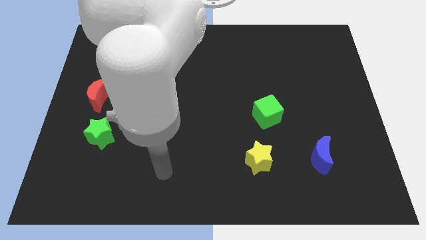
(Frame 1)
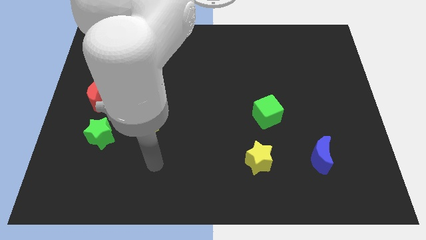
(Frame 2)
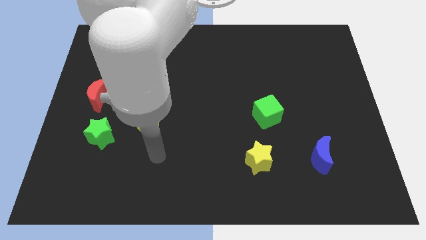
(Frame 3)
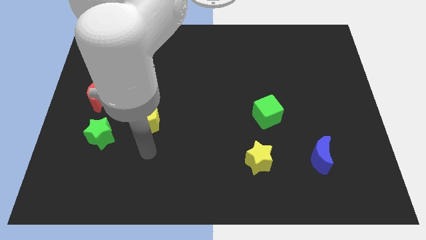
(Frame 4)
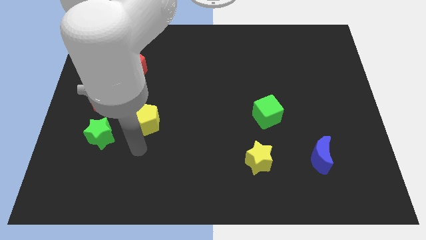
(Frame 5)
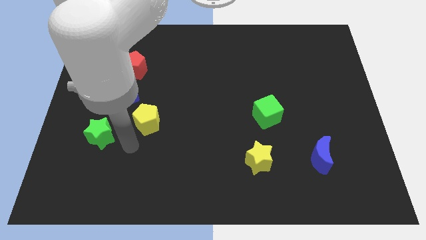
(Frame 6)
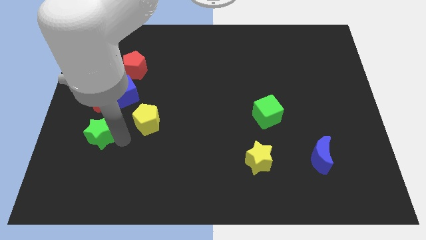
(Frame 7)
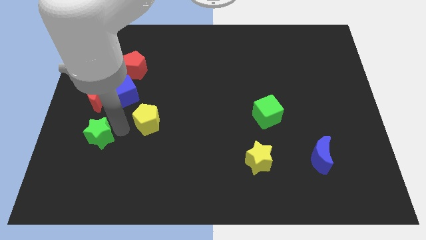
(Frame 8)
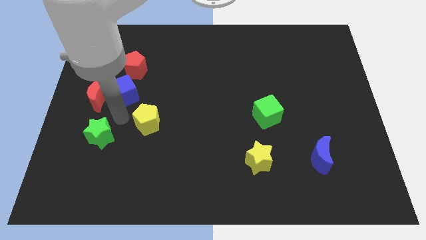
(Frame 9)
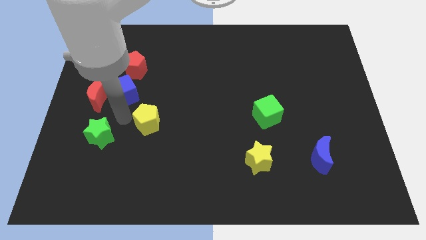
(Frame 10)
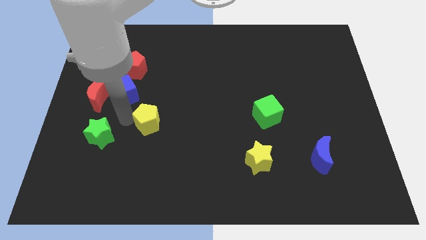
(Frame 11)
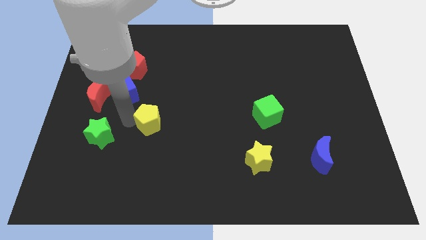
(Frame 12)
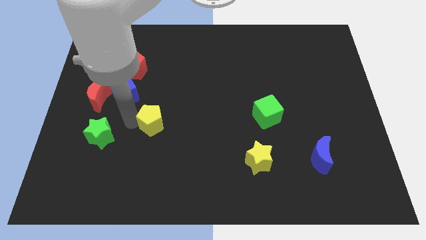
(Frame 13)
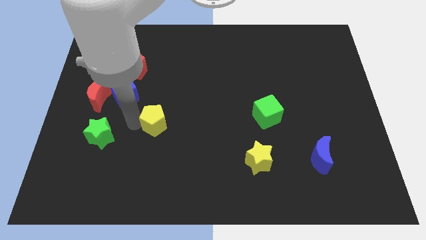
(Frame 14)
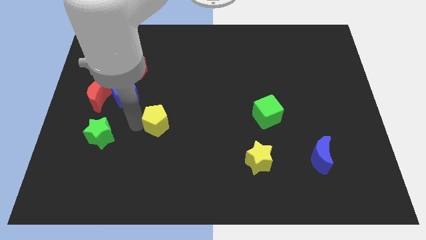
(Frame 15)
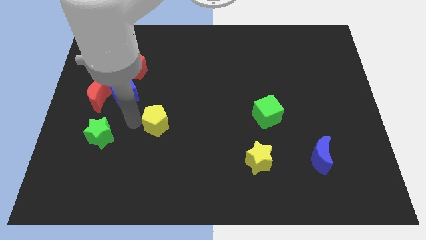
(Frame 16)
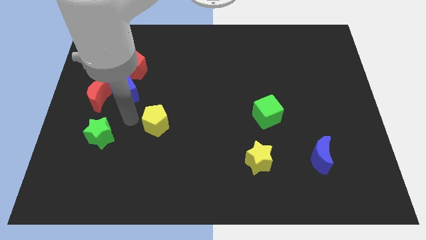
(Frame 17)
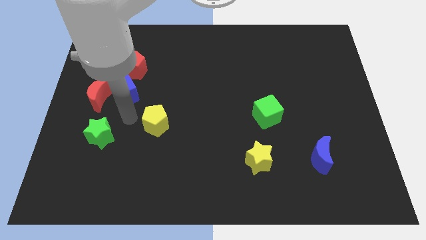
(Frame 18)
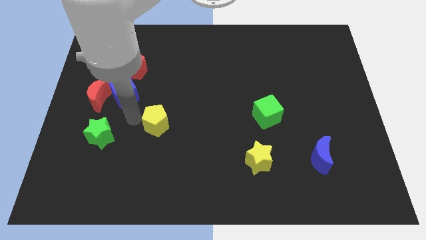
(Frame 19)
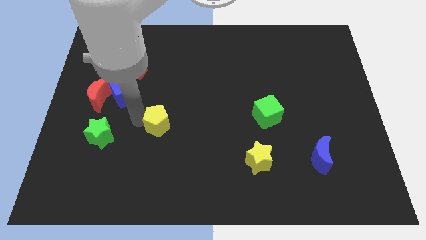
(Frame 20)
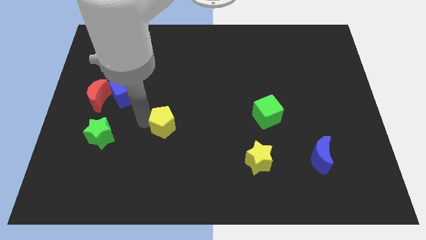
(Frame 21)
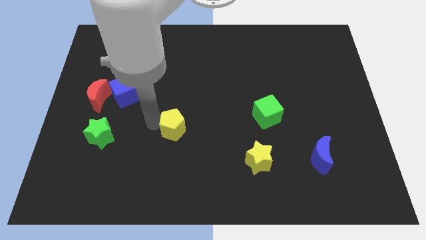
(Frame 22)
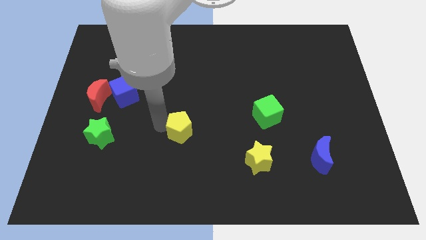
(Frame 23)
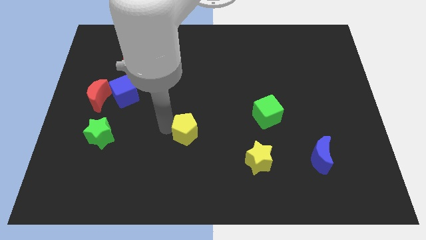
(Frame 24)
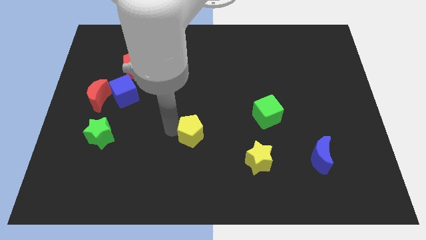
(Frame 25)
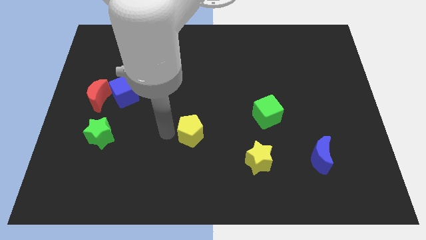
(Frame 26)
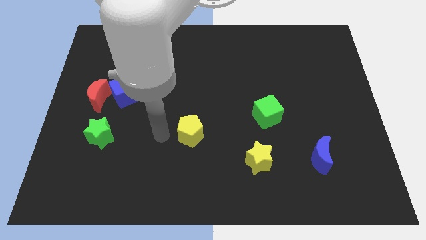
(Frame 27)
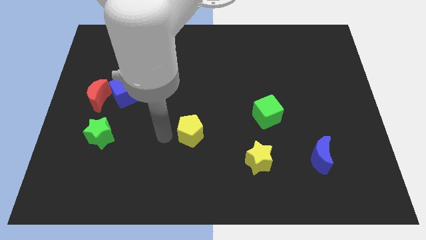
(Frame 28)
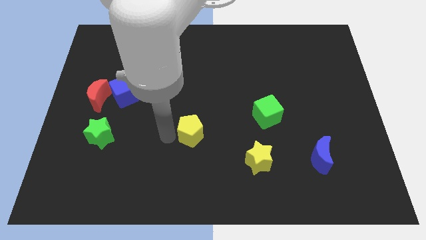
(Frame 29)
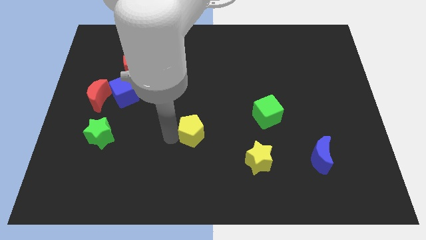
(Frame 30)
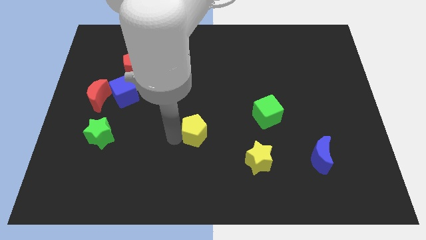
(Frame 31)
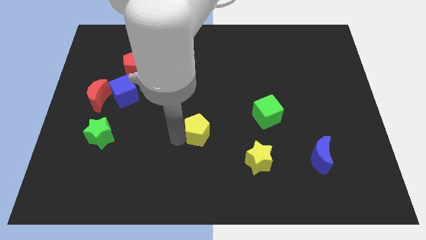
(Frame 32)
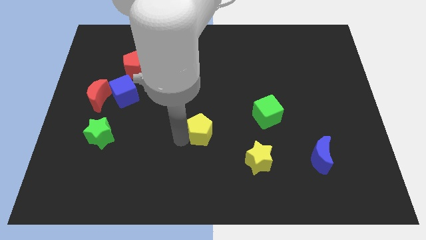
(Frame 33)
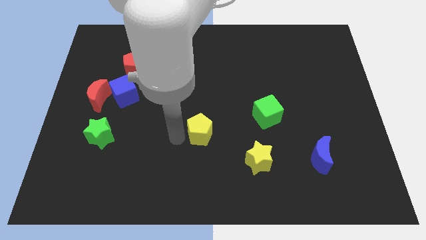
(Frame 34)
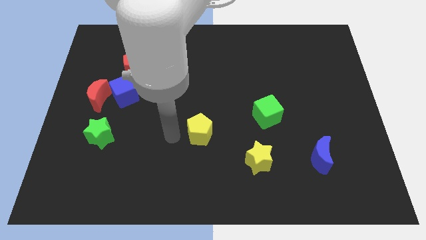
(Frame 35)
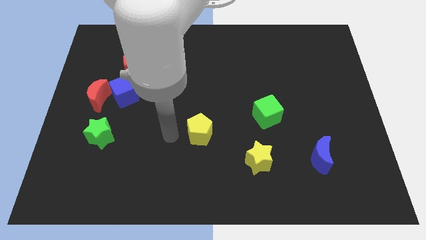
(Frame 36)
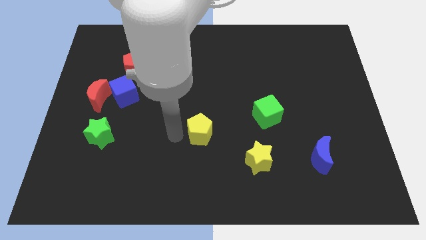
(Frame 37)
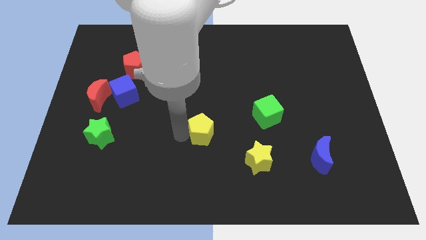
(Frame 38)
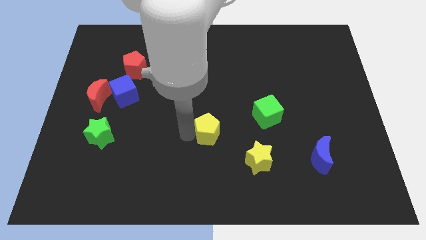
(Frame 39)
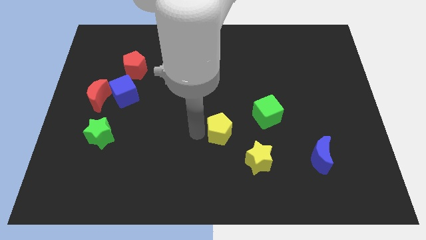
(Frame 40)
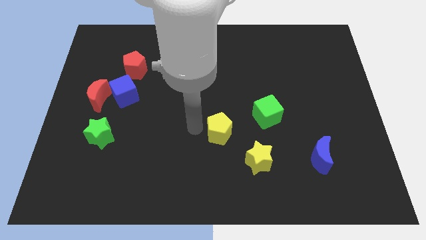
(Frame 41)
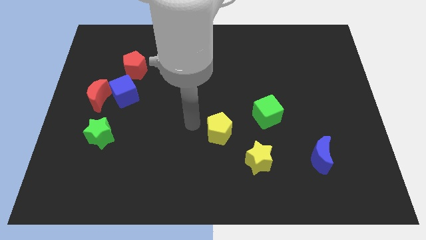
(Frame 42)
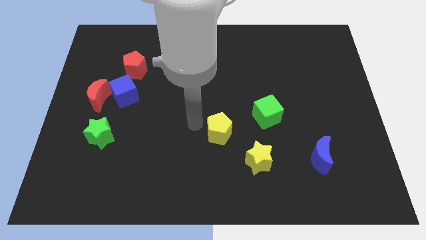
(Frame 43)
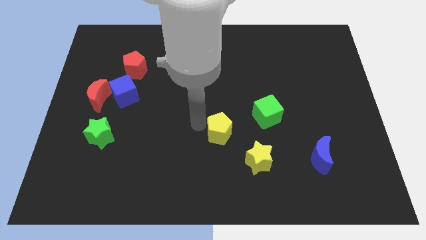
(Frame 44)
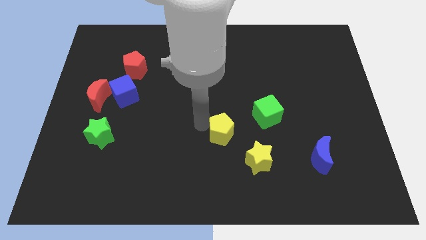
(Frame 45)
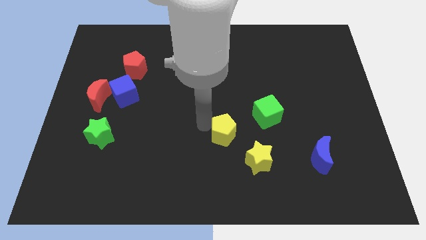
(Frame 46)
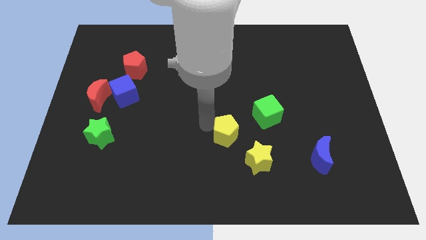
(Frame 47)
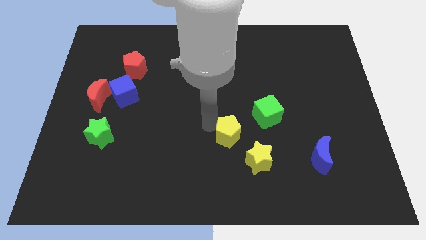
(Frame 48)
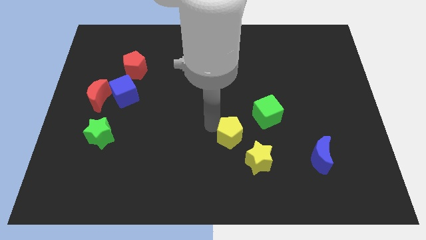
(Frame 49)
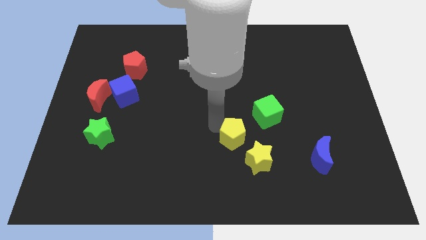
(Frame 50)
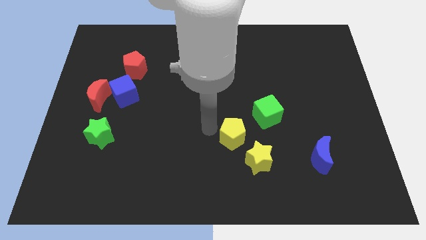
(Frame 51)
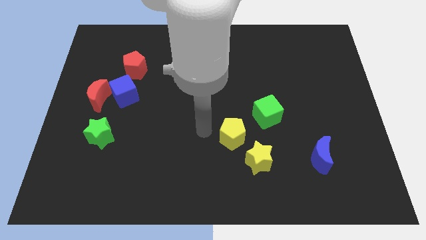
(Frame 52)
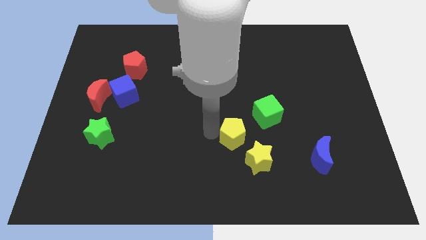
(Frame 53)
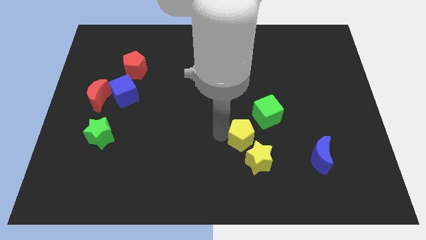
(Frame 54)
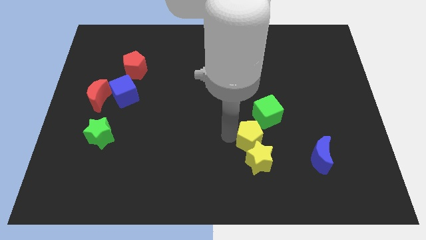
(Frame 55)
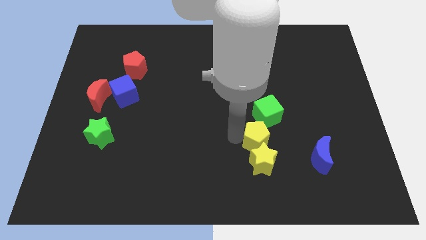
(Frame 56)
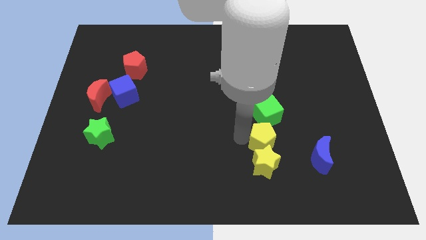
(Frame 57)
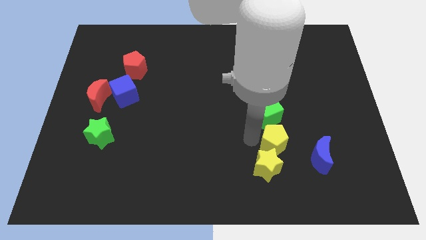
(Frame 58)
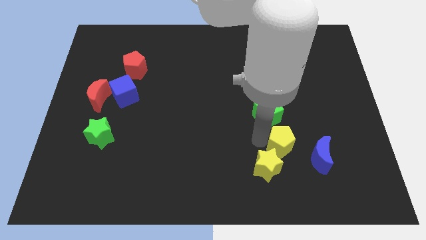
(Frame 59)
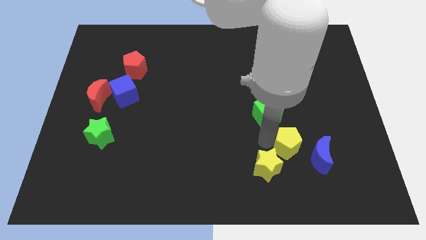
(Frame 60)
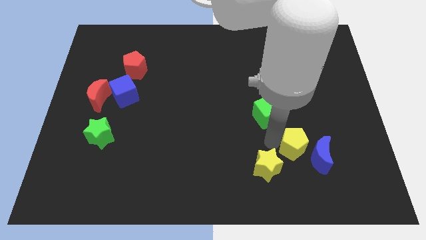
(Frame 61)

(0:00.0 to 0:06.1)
move the yellow pentagon next to the blue moon
